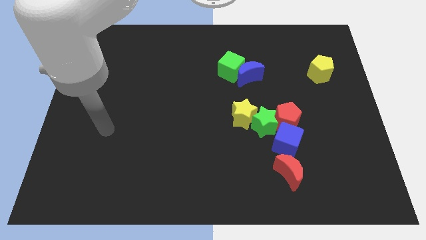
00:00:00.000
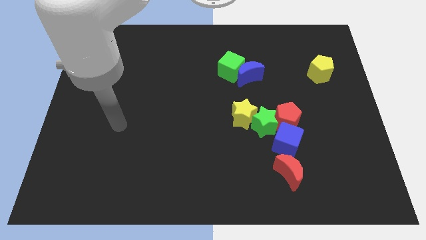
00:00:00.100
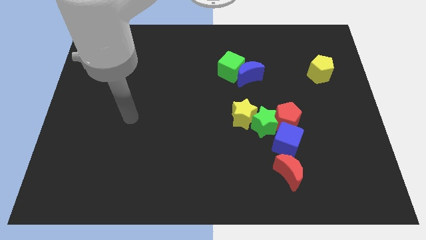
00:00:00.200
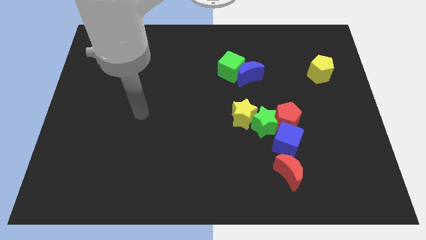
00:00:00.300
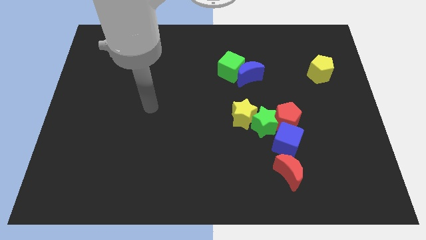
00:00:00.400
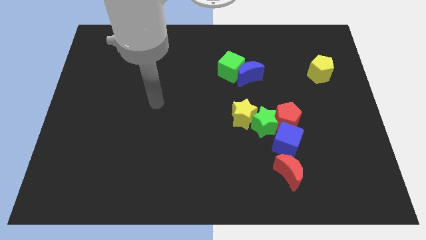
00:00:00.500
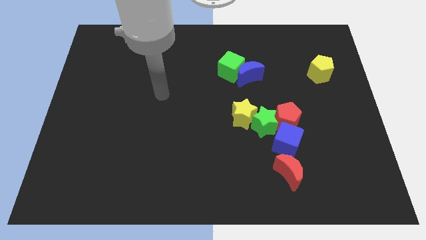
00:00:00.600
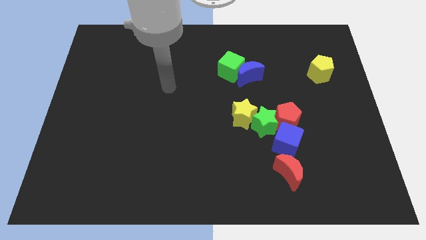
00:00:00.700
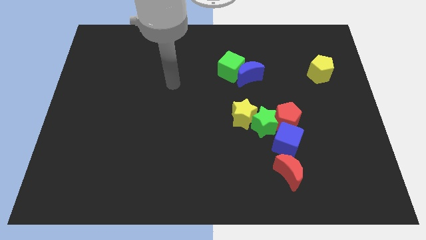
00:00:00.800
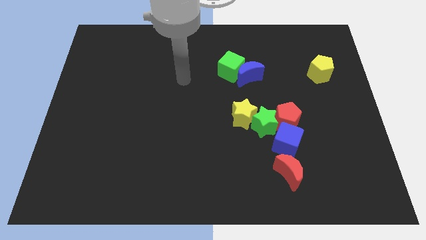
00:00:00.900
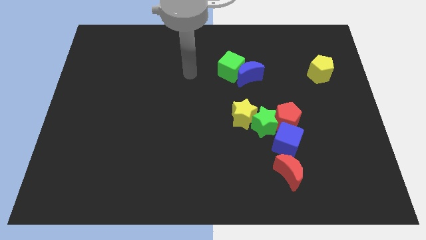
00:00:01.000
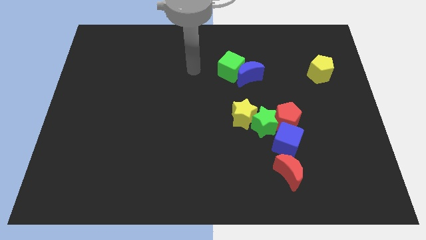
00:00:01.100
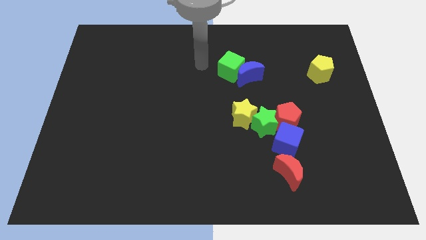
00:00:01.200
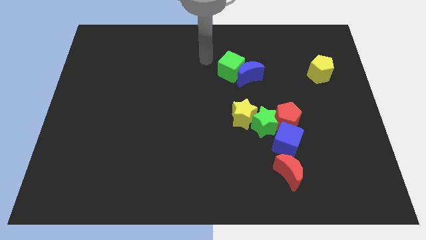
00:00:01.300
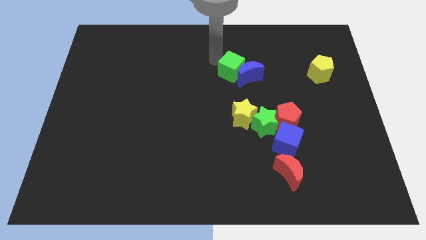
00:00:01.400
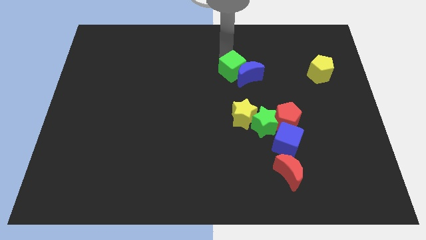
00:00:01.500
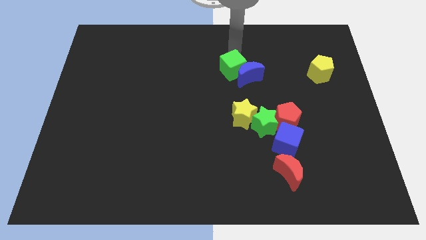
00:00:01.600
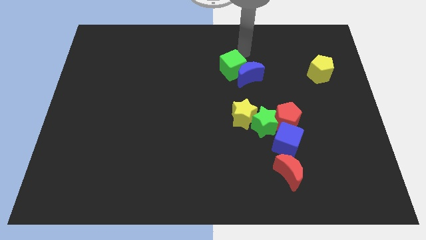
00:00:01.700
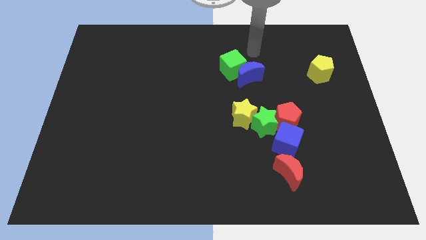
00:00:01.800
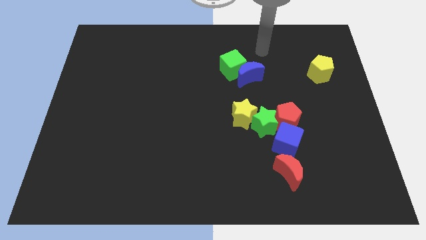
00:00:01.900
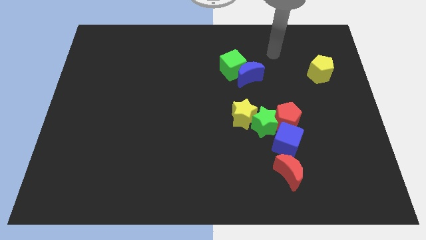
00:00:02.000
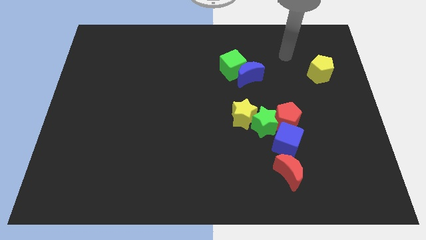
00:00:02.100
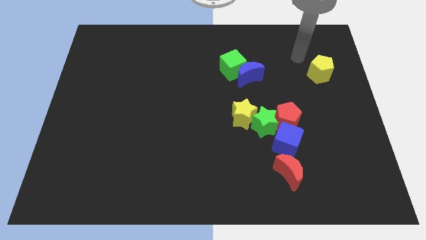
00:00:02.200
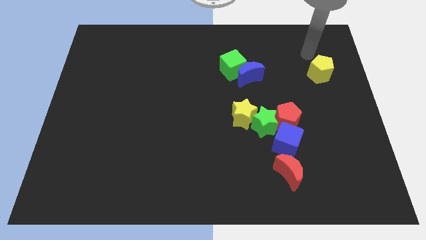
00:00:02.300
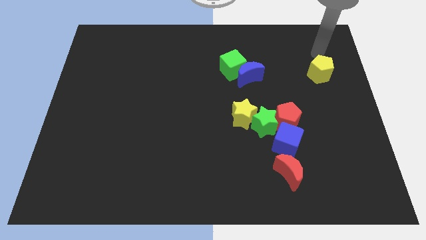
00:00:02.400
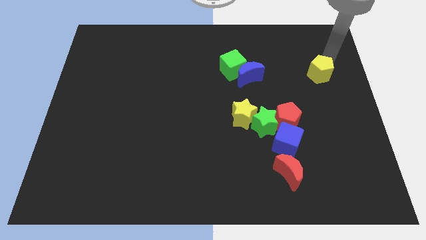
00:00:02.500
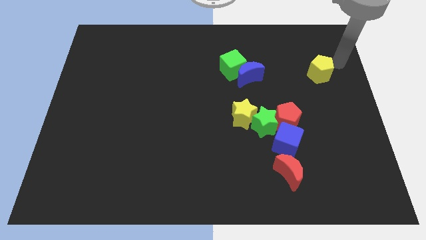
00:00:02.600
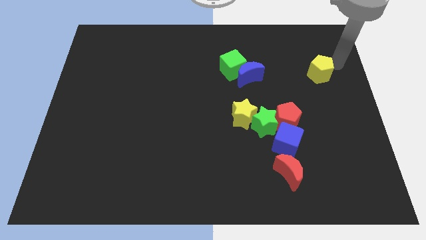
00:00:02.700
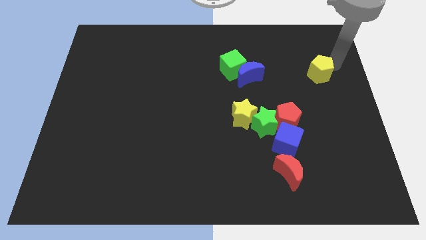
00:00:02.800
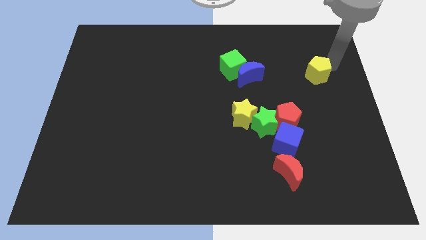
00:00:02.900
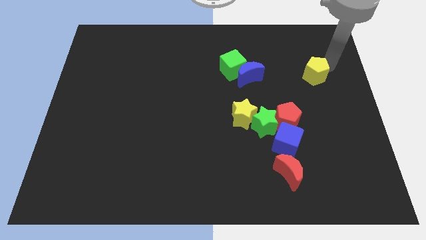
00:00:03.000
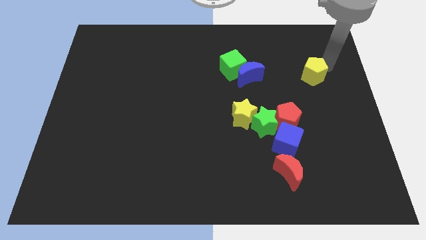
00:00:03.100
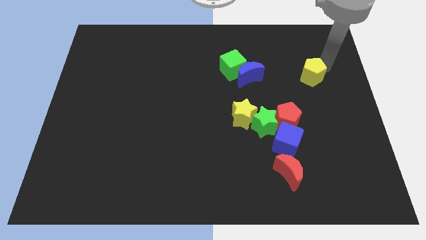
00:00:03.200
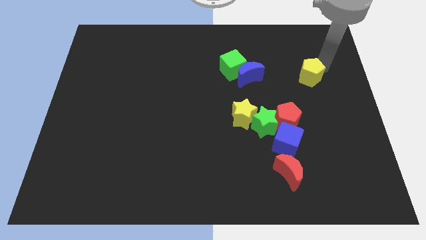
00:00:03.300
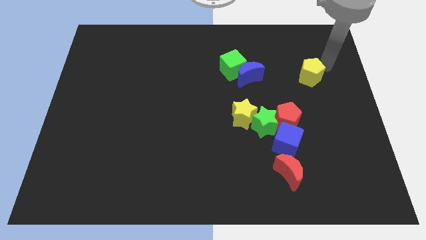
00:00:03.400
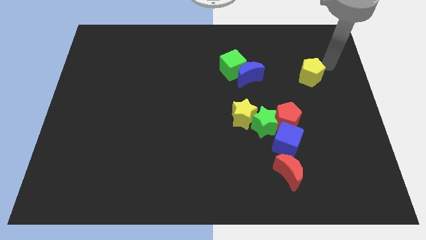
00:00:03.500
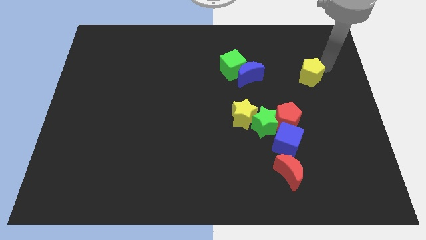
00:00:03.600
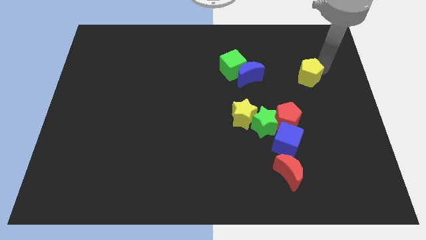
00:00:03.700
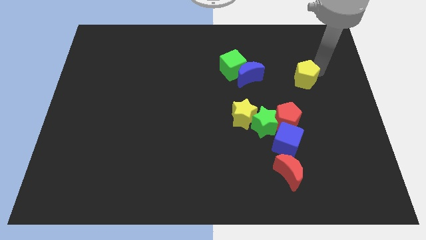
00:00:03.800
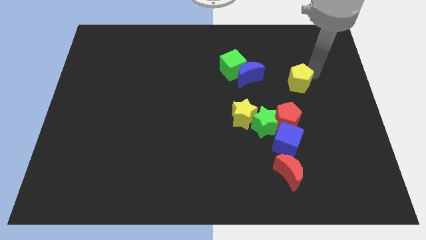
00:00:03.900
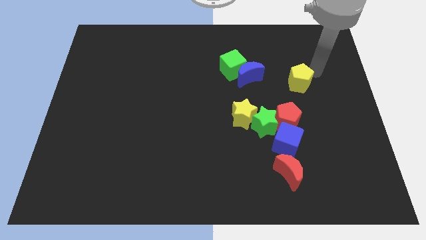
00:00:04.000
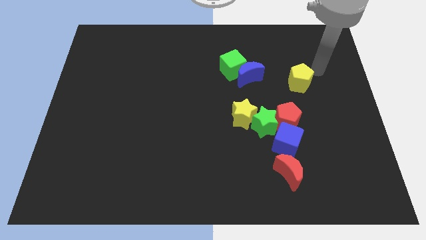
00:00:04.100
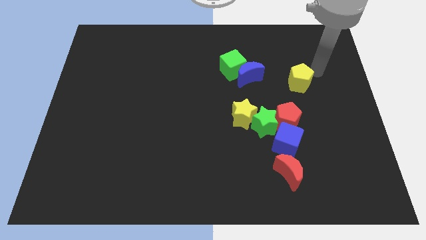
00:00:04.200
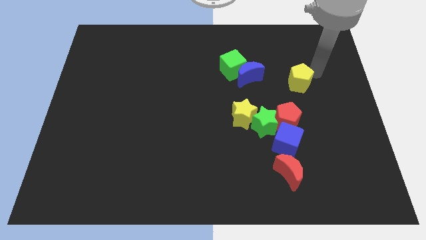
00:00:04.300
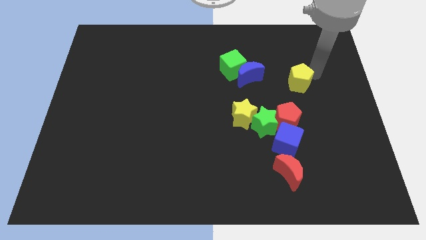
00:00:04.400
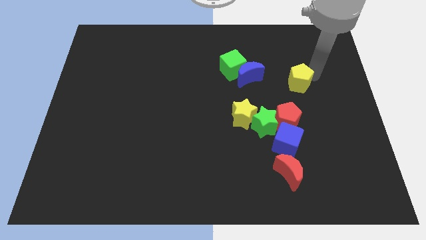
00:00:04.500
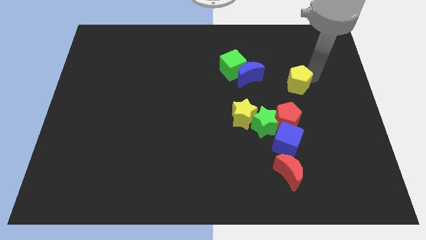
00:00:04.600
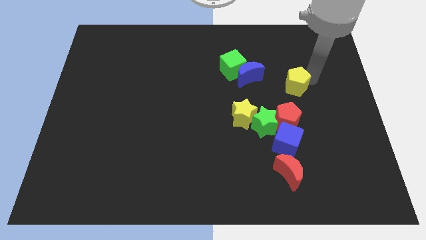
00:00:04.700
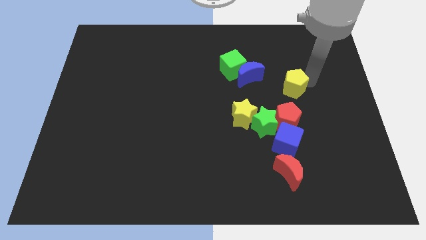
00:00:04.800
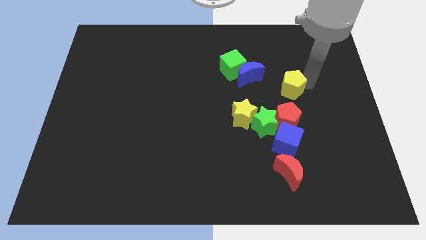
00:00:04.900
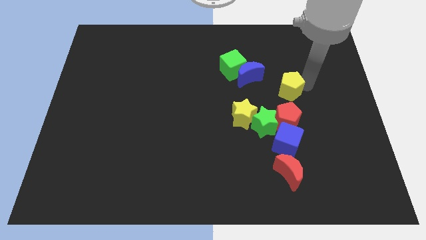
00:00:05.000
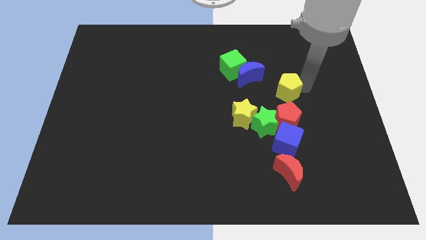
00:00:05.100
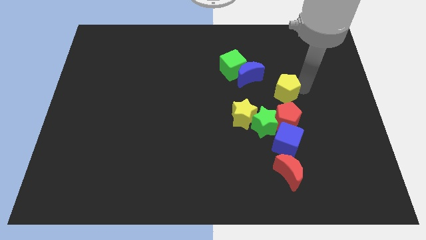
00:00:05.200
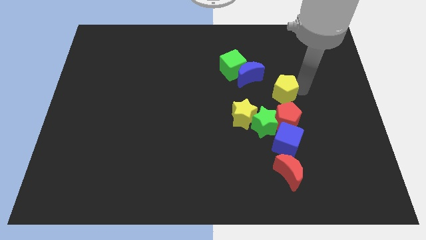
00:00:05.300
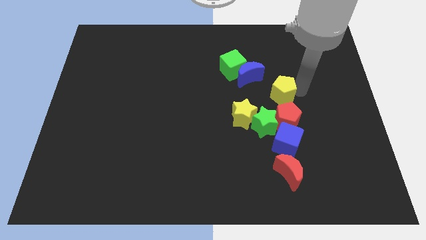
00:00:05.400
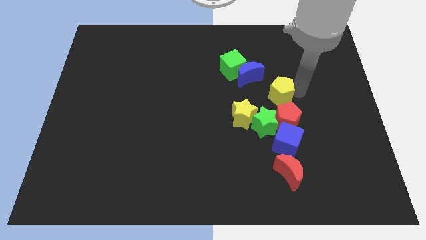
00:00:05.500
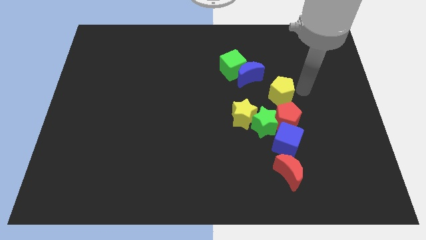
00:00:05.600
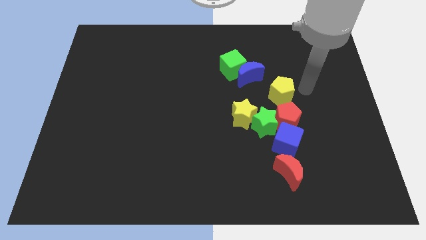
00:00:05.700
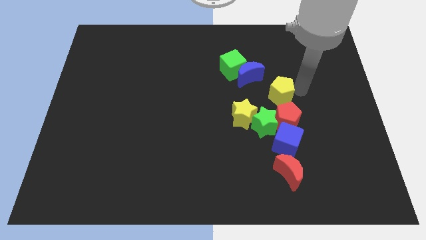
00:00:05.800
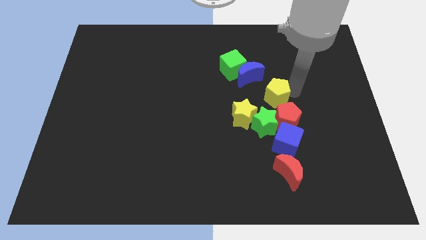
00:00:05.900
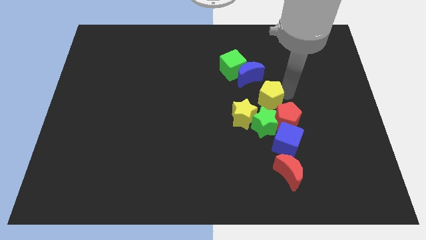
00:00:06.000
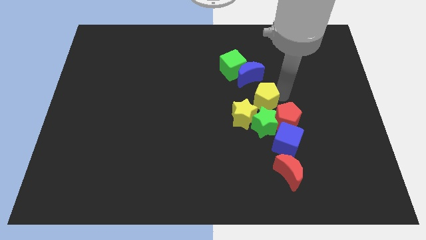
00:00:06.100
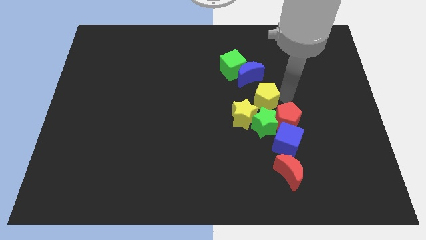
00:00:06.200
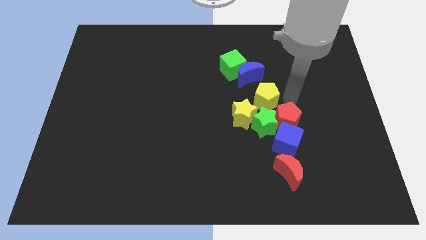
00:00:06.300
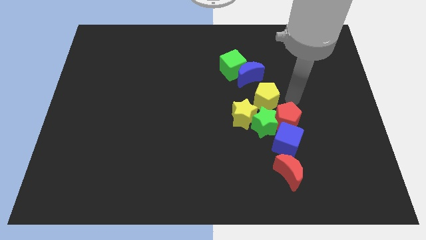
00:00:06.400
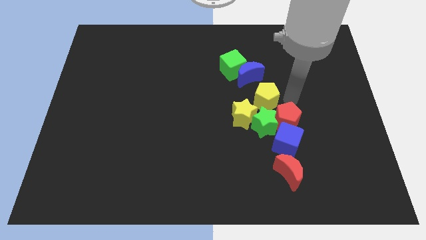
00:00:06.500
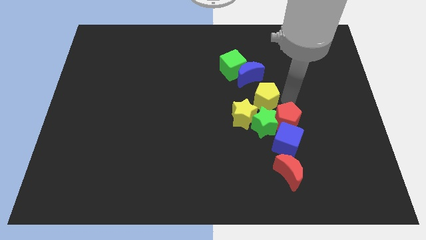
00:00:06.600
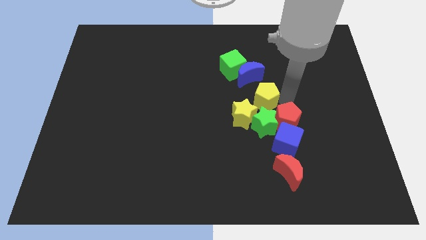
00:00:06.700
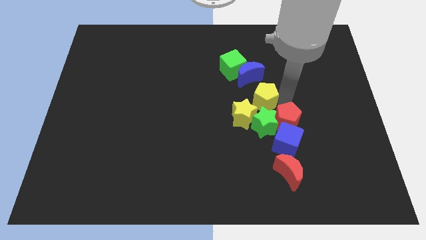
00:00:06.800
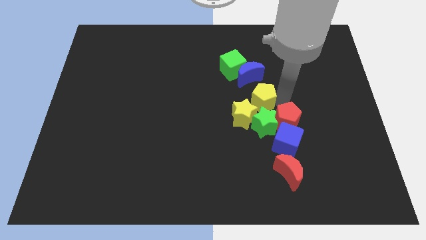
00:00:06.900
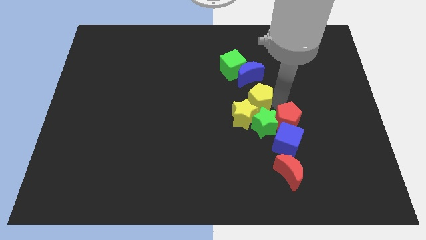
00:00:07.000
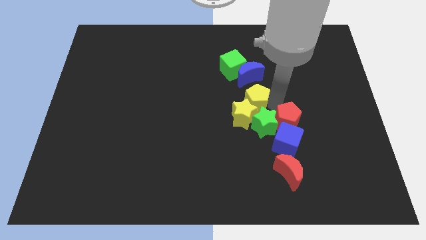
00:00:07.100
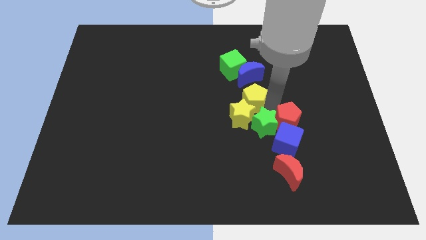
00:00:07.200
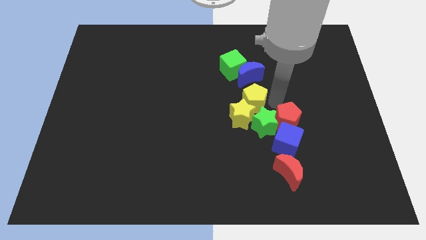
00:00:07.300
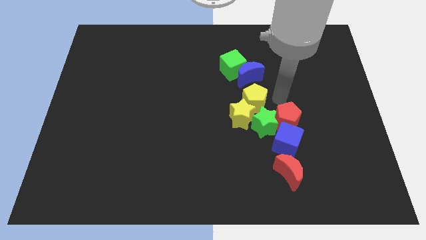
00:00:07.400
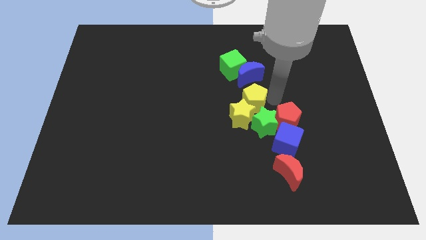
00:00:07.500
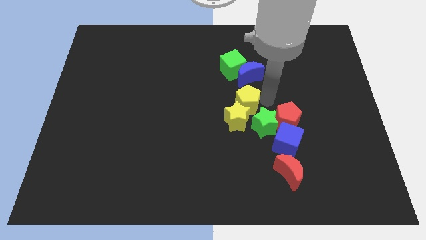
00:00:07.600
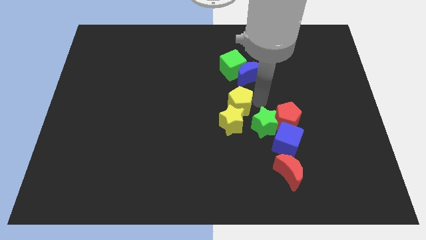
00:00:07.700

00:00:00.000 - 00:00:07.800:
push the yellow pentagon downwards and to the left diagonally

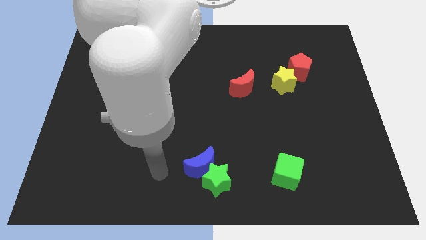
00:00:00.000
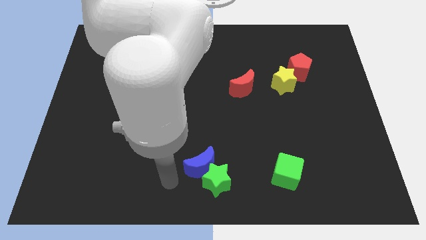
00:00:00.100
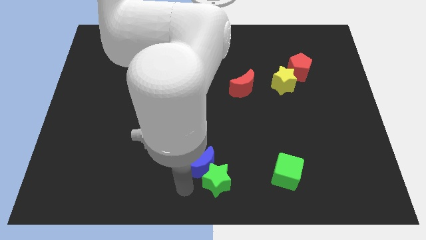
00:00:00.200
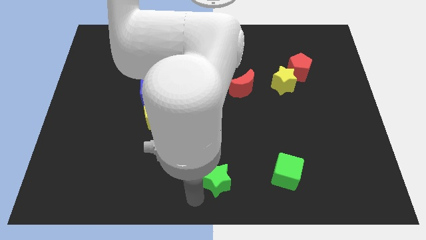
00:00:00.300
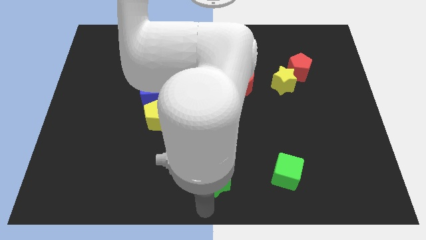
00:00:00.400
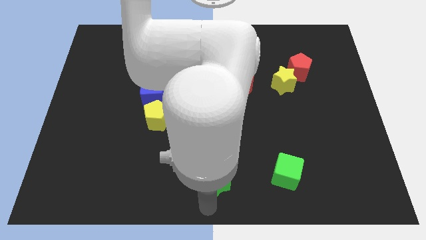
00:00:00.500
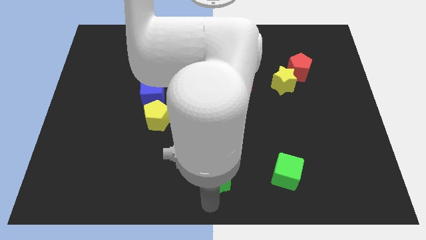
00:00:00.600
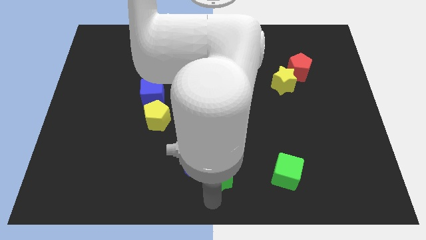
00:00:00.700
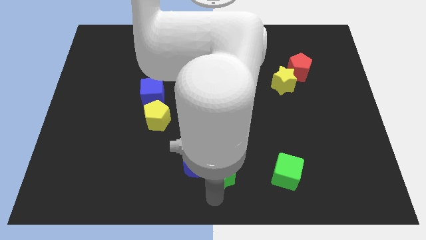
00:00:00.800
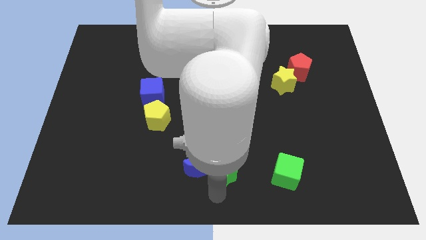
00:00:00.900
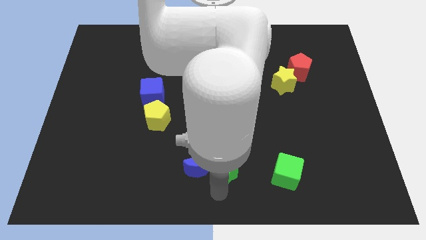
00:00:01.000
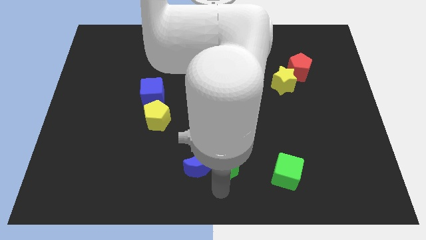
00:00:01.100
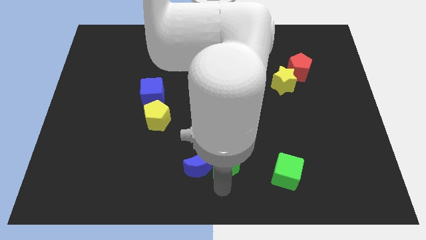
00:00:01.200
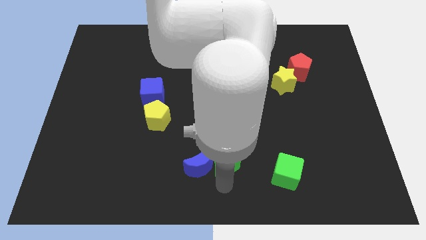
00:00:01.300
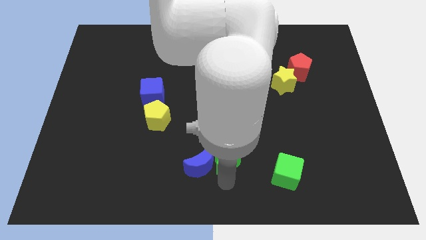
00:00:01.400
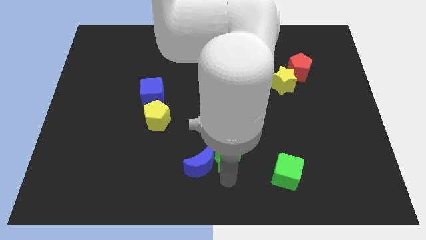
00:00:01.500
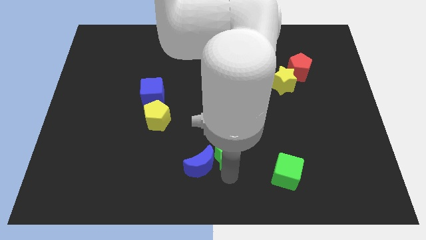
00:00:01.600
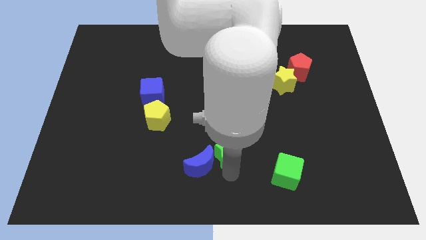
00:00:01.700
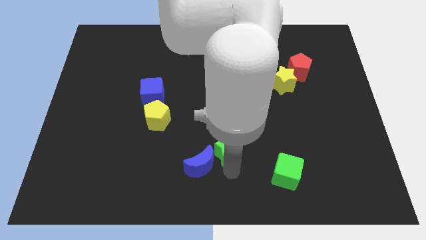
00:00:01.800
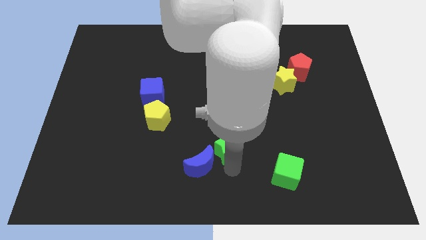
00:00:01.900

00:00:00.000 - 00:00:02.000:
push the green star slightly up
